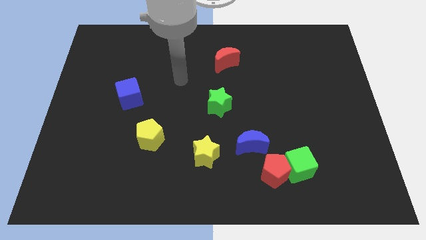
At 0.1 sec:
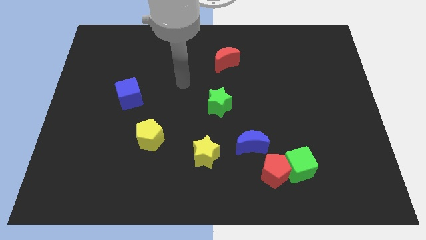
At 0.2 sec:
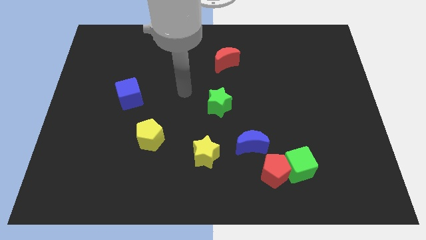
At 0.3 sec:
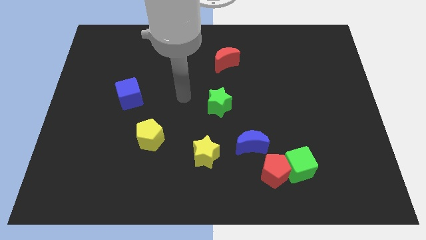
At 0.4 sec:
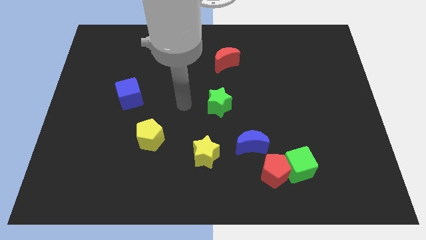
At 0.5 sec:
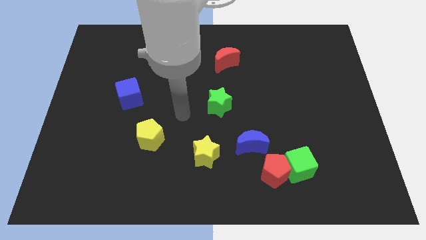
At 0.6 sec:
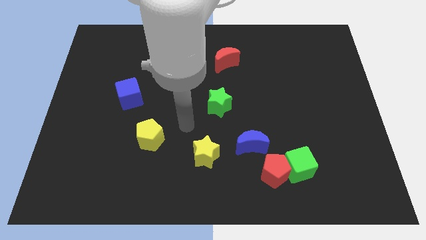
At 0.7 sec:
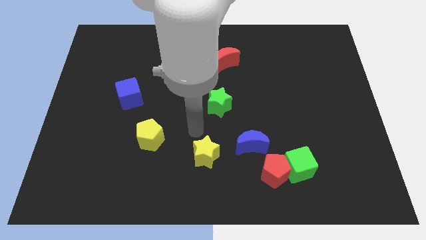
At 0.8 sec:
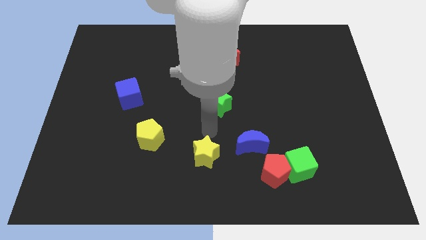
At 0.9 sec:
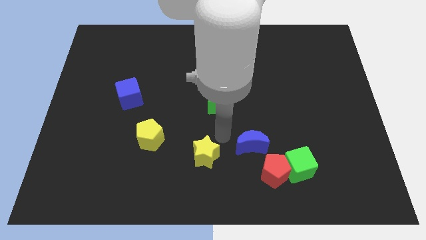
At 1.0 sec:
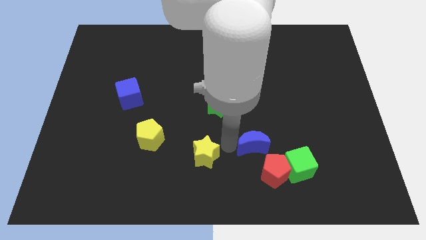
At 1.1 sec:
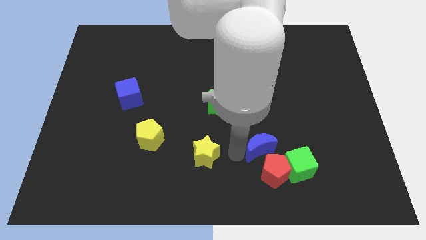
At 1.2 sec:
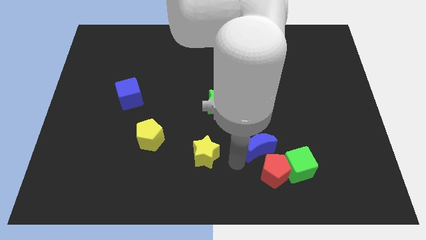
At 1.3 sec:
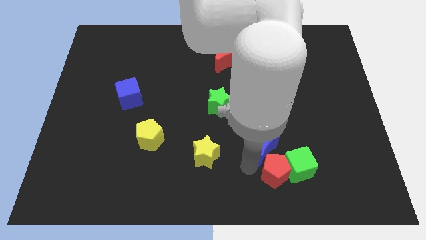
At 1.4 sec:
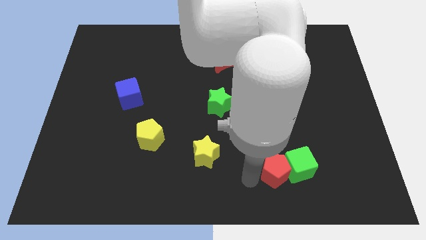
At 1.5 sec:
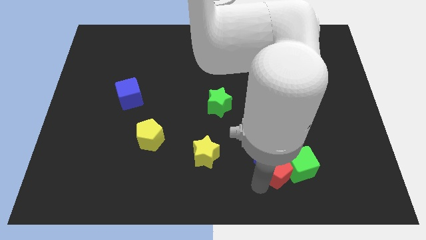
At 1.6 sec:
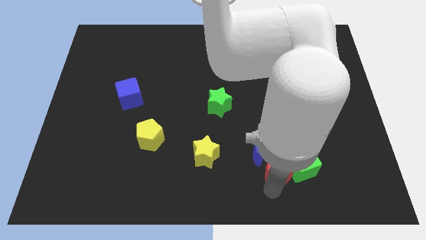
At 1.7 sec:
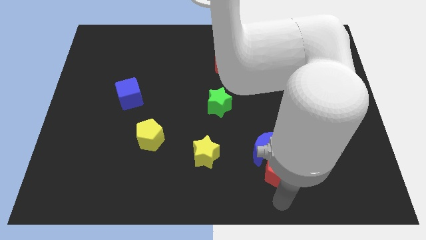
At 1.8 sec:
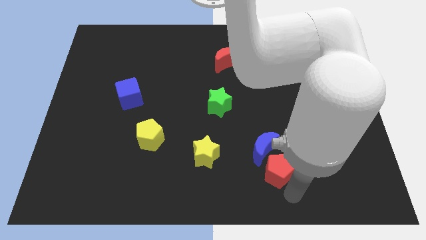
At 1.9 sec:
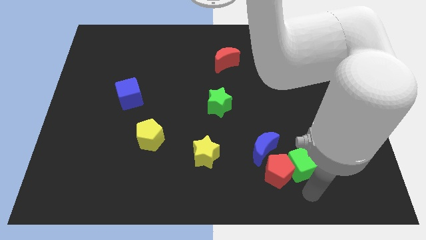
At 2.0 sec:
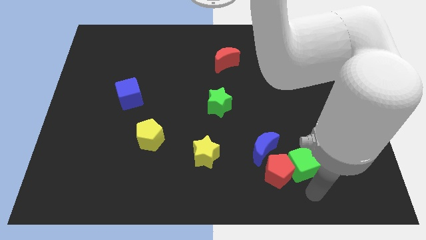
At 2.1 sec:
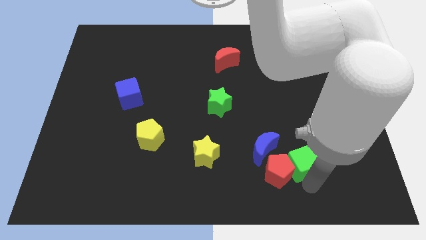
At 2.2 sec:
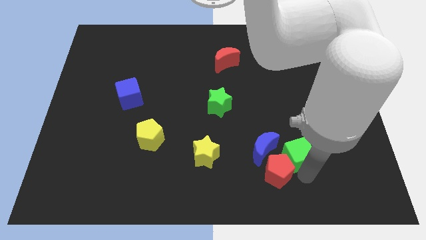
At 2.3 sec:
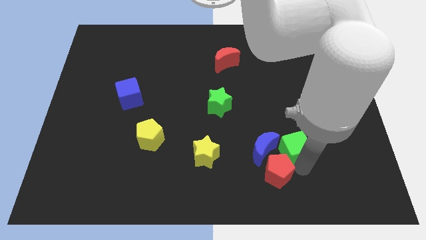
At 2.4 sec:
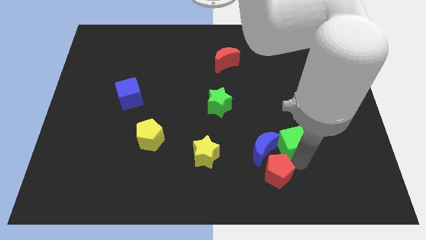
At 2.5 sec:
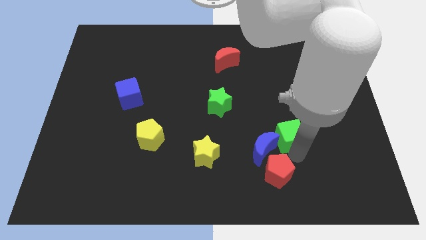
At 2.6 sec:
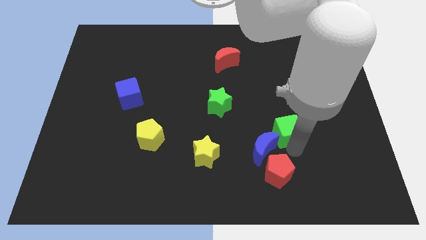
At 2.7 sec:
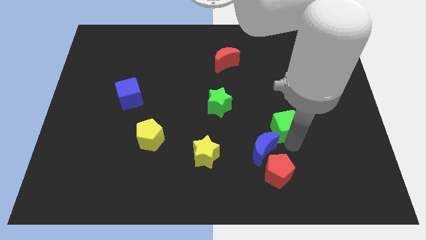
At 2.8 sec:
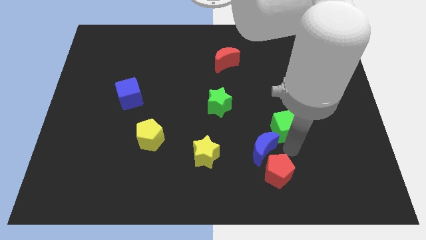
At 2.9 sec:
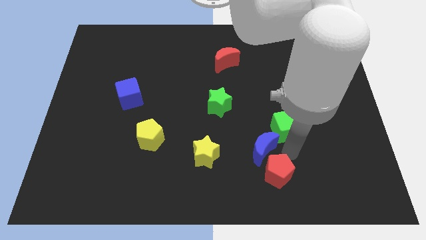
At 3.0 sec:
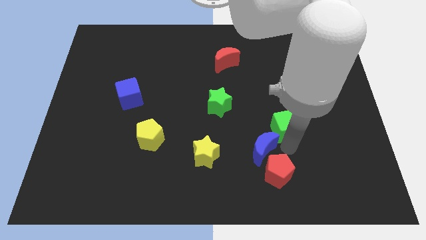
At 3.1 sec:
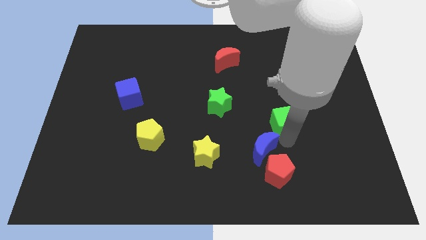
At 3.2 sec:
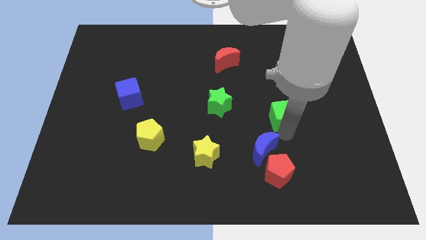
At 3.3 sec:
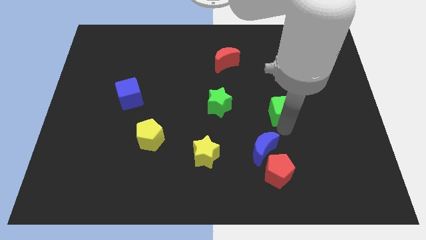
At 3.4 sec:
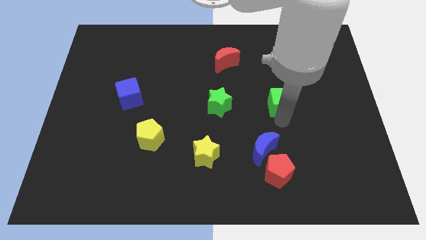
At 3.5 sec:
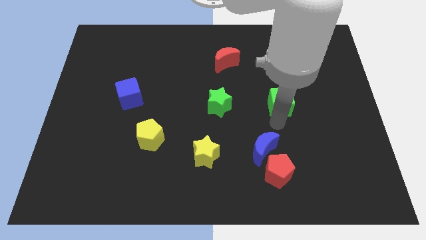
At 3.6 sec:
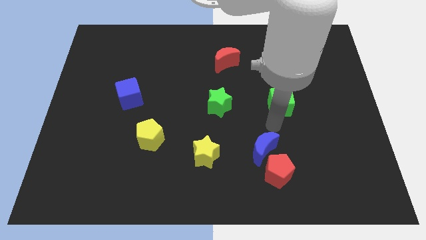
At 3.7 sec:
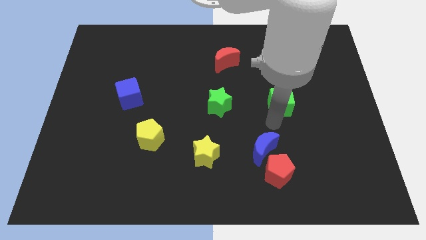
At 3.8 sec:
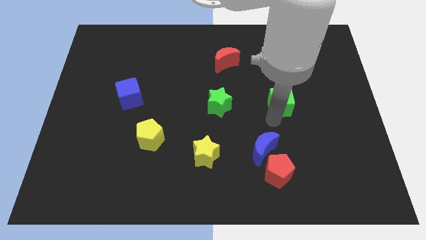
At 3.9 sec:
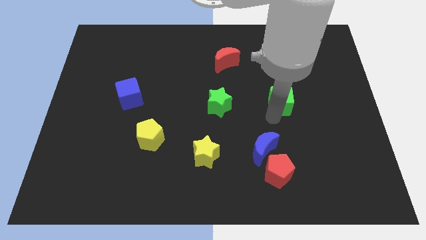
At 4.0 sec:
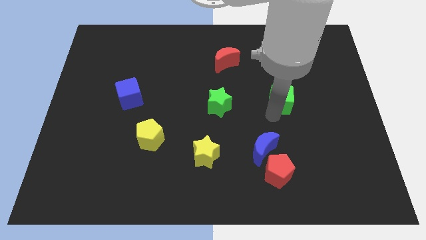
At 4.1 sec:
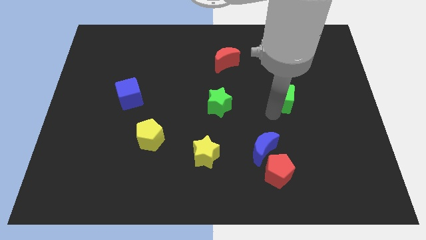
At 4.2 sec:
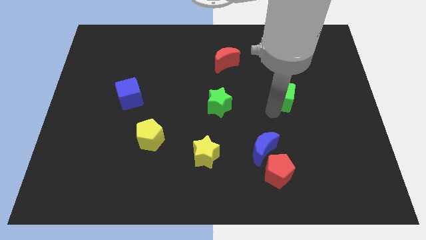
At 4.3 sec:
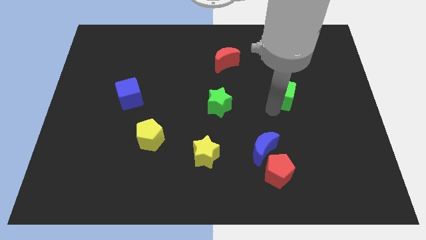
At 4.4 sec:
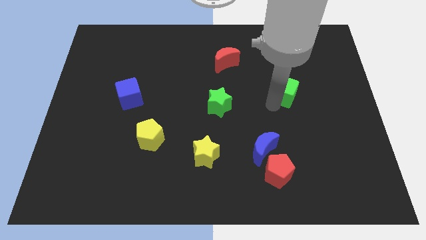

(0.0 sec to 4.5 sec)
slide the green cube upwards

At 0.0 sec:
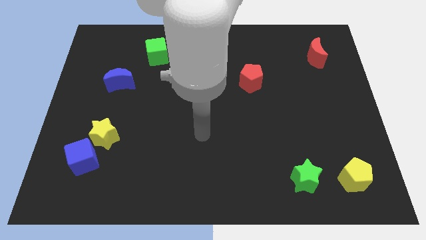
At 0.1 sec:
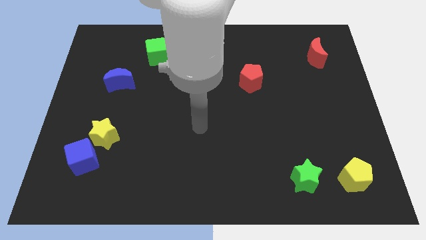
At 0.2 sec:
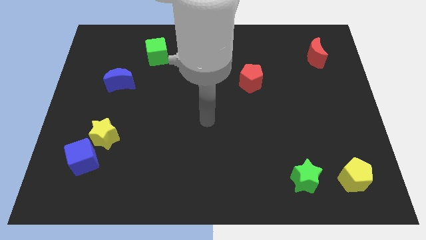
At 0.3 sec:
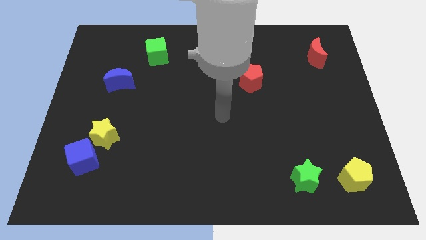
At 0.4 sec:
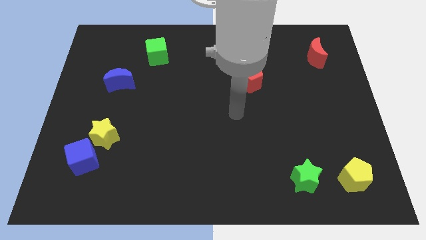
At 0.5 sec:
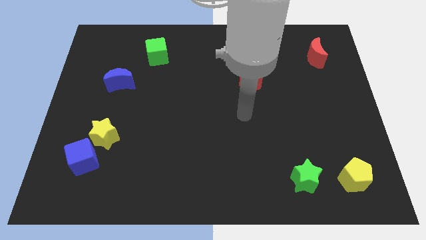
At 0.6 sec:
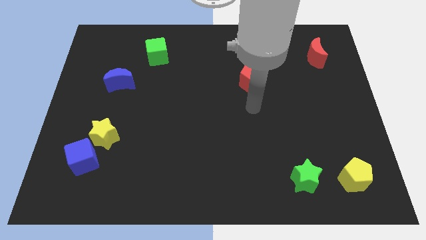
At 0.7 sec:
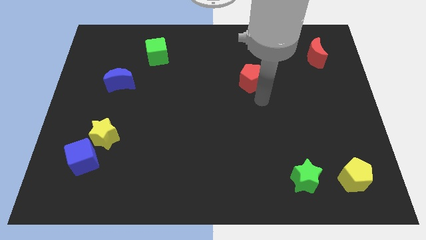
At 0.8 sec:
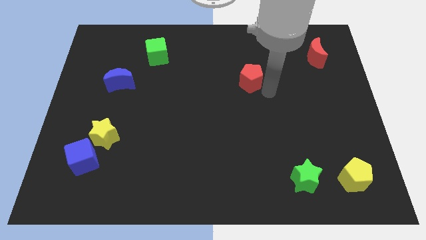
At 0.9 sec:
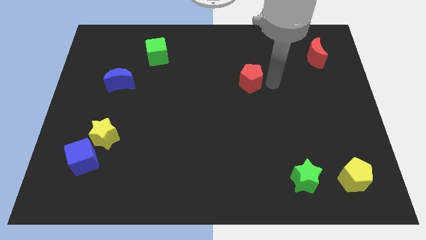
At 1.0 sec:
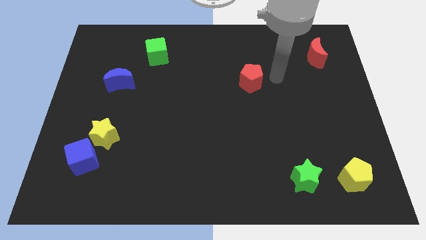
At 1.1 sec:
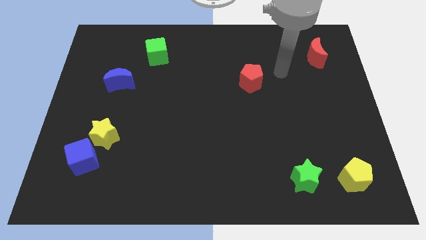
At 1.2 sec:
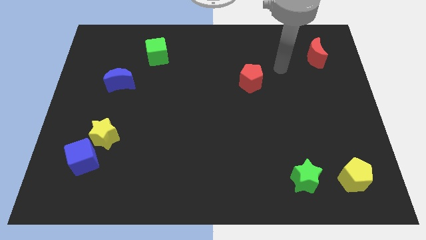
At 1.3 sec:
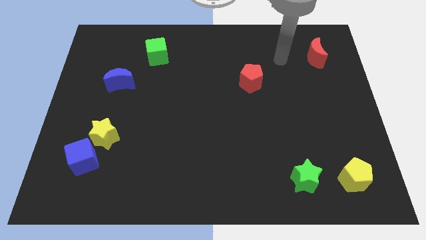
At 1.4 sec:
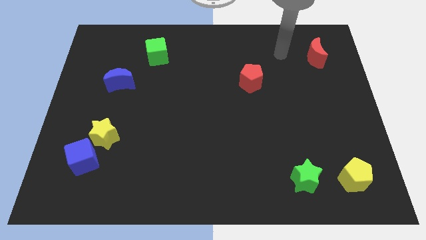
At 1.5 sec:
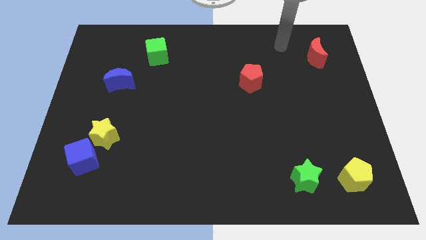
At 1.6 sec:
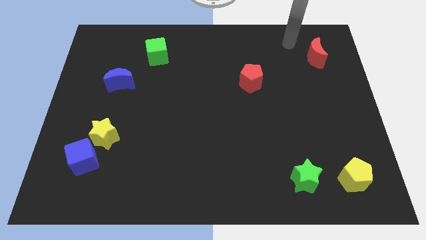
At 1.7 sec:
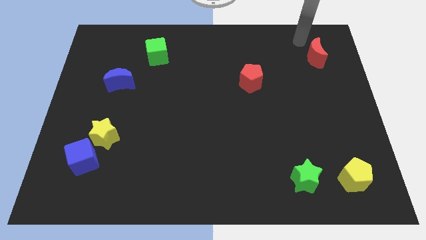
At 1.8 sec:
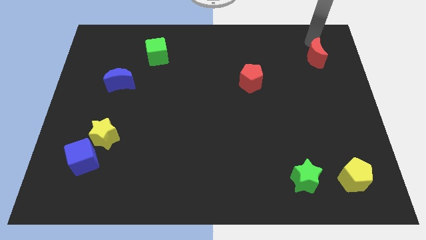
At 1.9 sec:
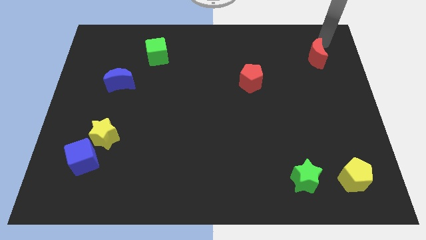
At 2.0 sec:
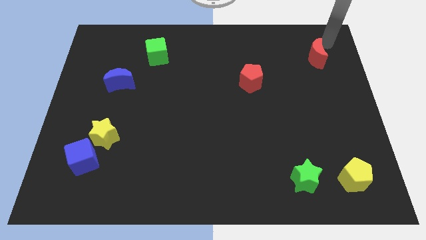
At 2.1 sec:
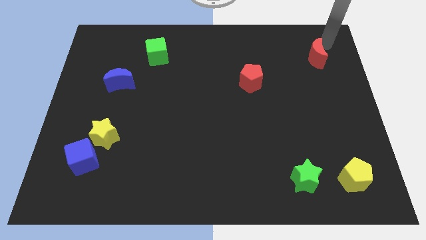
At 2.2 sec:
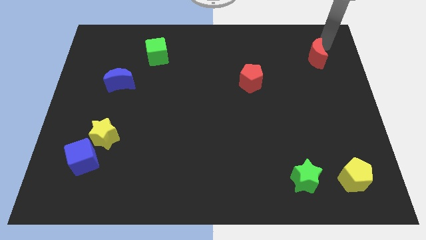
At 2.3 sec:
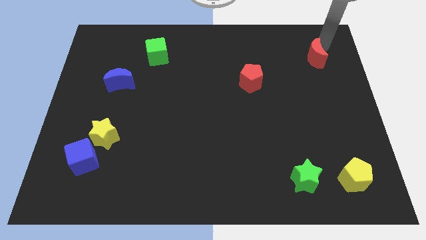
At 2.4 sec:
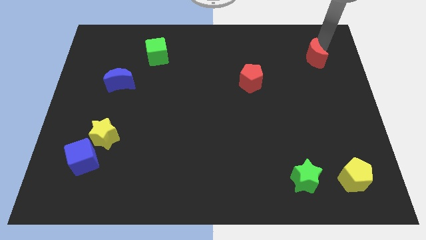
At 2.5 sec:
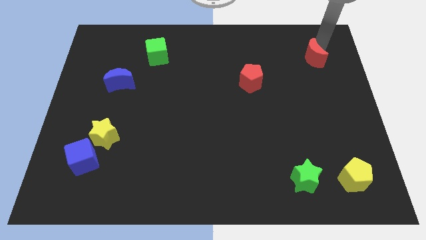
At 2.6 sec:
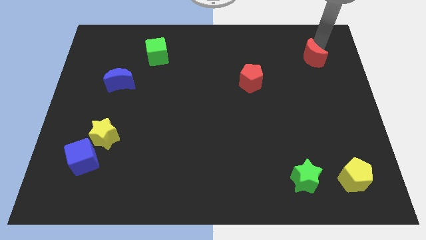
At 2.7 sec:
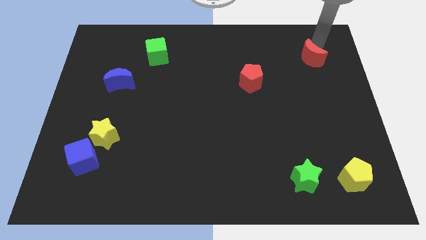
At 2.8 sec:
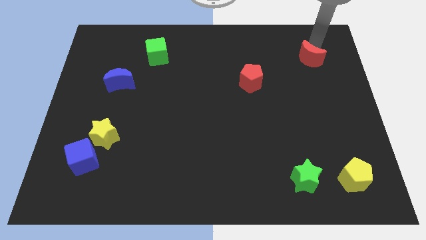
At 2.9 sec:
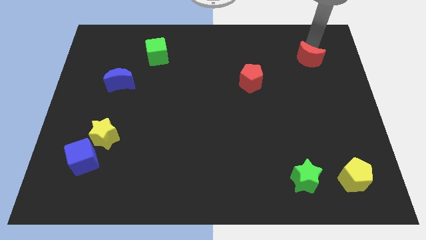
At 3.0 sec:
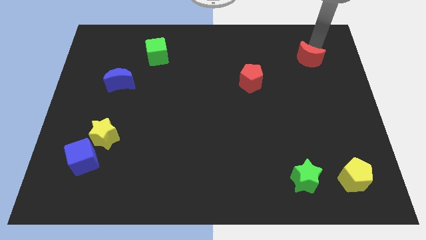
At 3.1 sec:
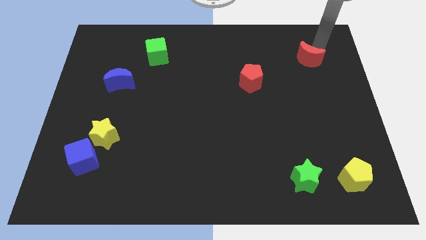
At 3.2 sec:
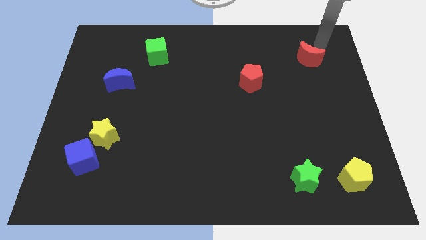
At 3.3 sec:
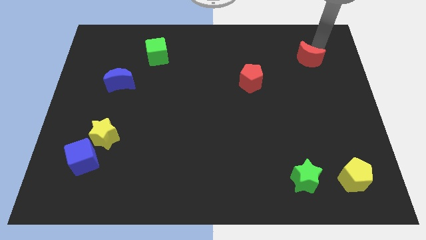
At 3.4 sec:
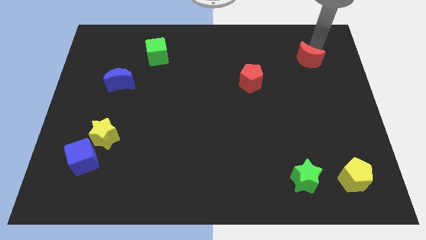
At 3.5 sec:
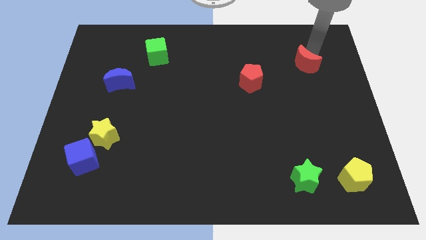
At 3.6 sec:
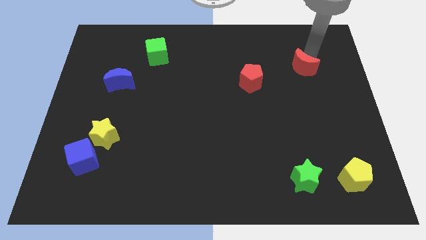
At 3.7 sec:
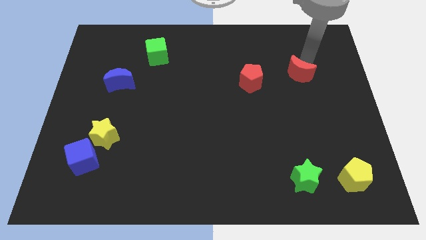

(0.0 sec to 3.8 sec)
move the red moon a bit downwards and left diagonally
